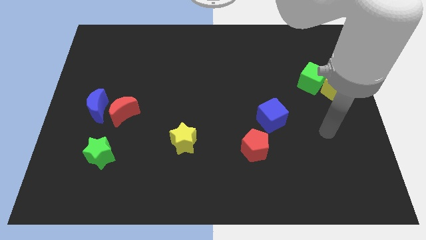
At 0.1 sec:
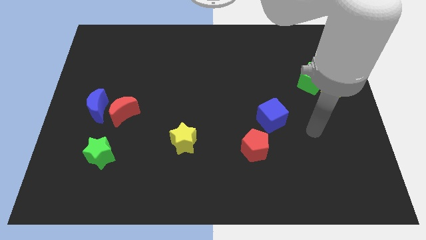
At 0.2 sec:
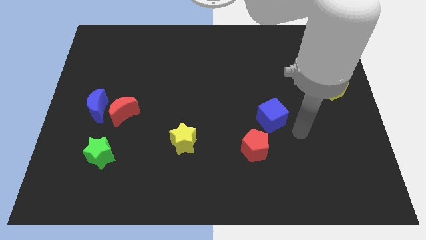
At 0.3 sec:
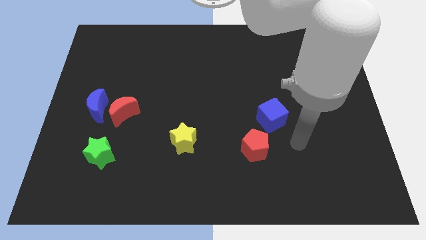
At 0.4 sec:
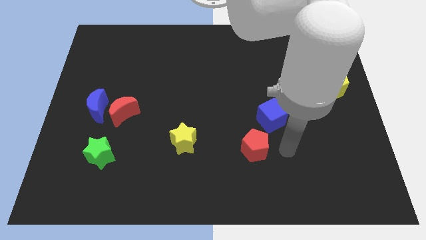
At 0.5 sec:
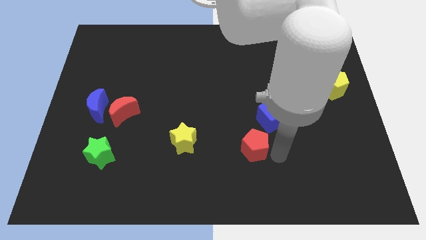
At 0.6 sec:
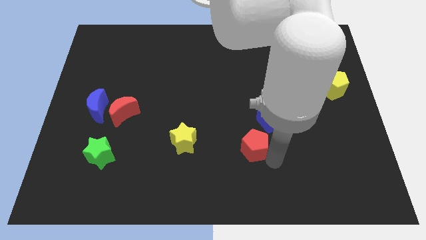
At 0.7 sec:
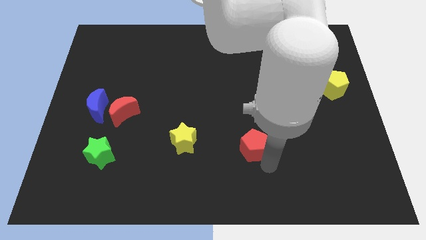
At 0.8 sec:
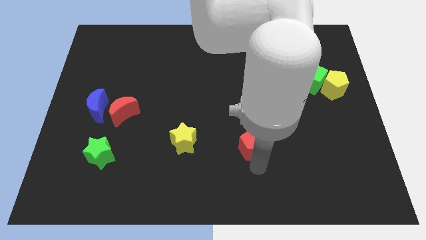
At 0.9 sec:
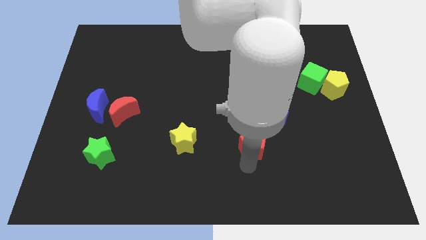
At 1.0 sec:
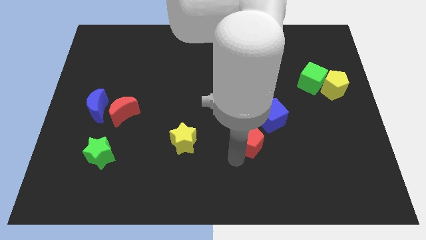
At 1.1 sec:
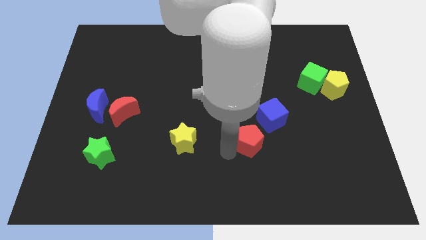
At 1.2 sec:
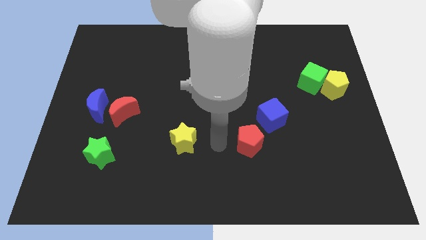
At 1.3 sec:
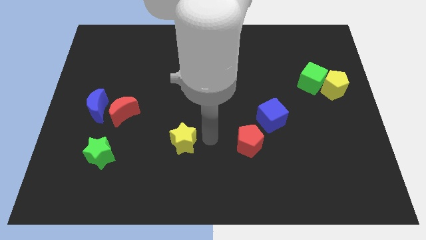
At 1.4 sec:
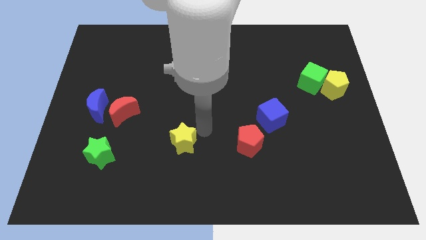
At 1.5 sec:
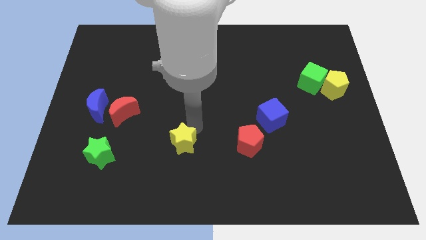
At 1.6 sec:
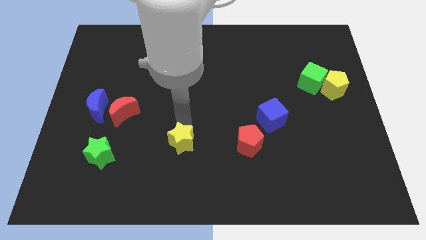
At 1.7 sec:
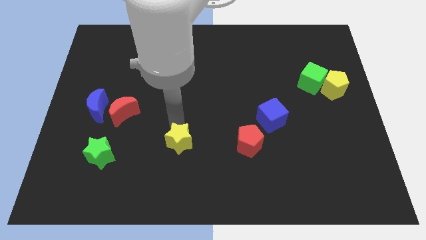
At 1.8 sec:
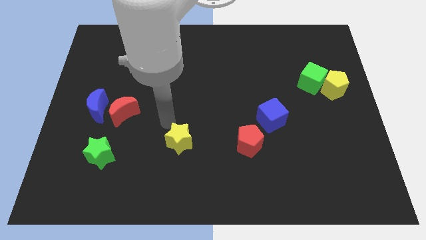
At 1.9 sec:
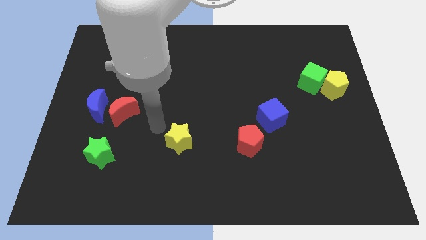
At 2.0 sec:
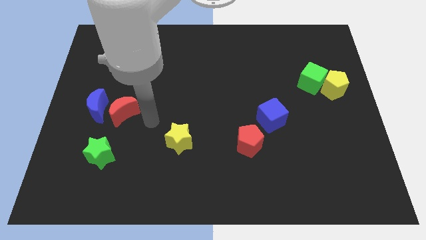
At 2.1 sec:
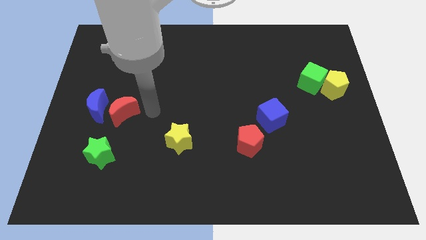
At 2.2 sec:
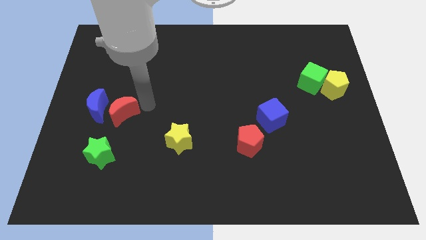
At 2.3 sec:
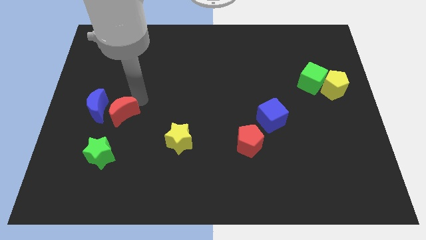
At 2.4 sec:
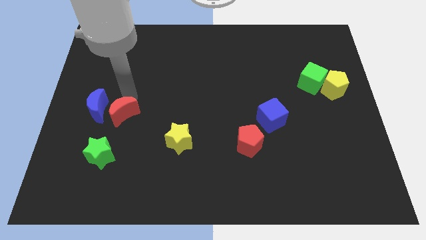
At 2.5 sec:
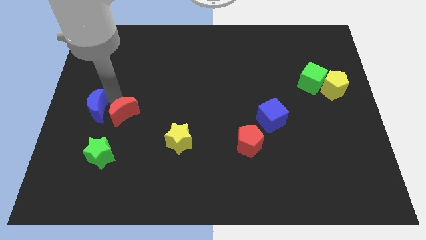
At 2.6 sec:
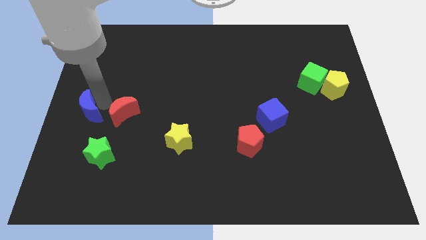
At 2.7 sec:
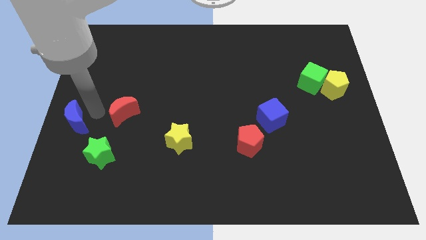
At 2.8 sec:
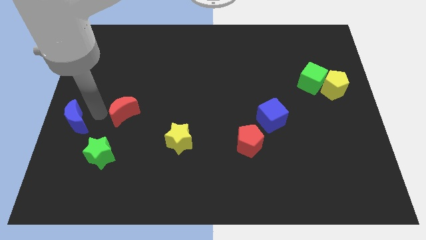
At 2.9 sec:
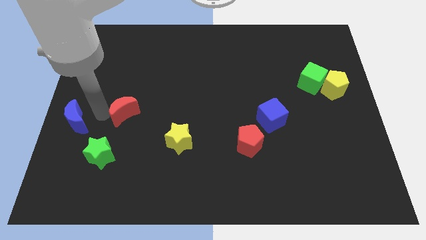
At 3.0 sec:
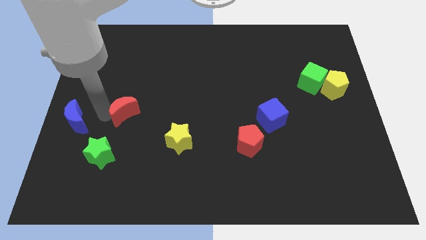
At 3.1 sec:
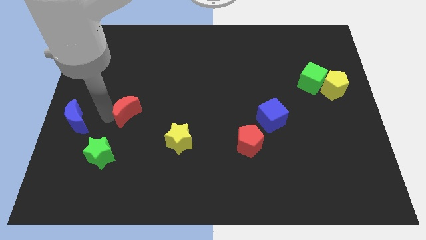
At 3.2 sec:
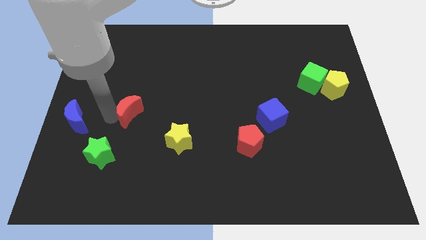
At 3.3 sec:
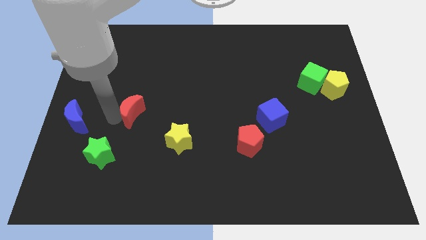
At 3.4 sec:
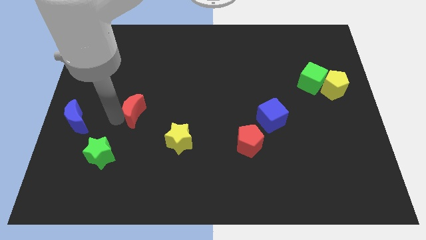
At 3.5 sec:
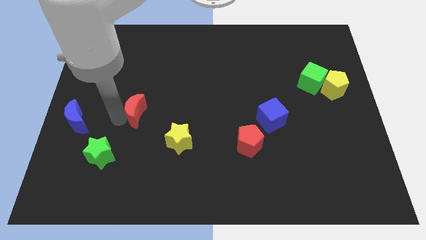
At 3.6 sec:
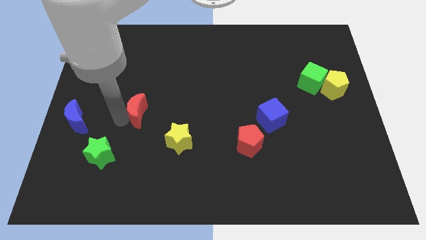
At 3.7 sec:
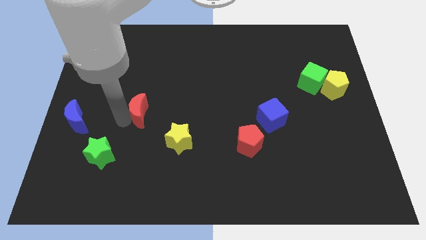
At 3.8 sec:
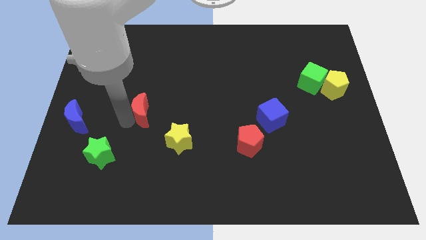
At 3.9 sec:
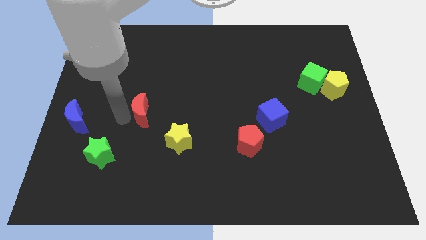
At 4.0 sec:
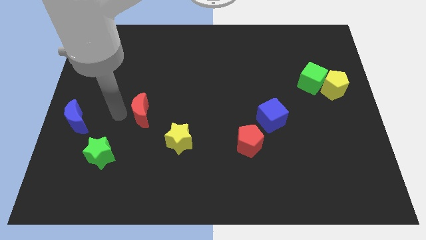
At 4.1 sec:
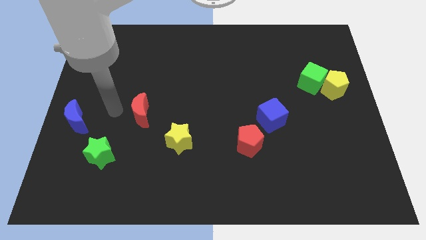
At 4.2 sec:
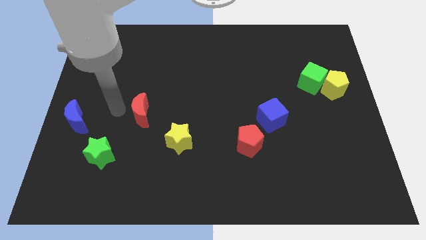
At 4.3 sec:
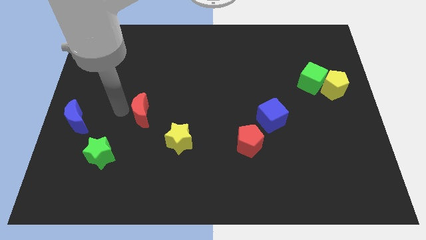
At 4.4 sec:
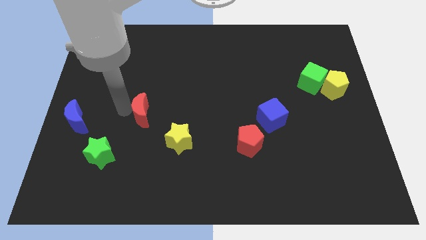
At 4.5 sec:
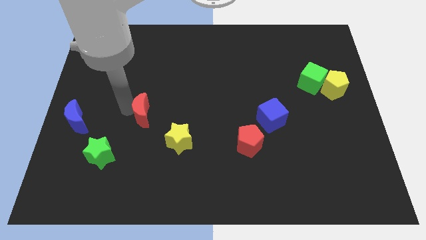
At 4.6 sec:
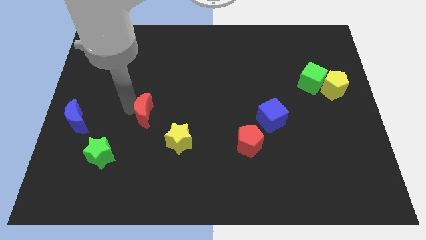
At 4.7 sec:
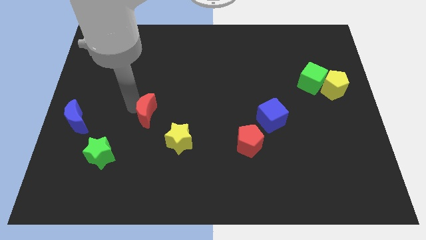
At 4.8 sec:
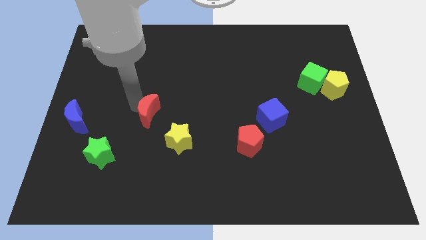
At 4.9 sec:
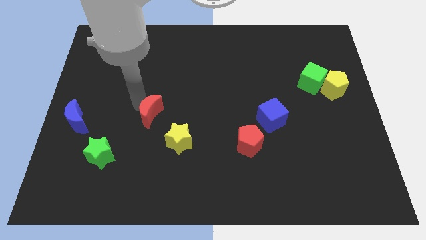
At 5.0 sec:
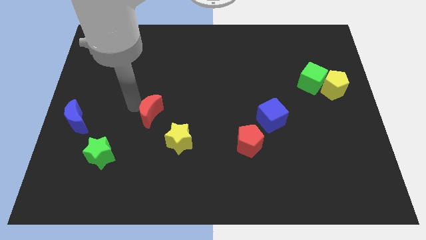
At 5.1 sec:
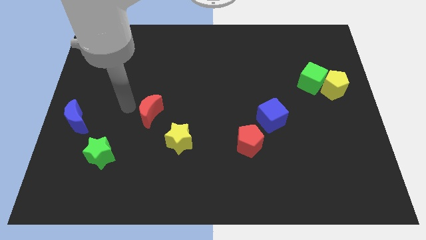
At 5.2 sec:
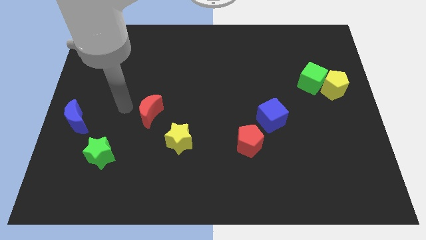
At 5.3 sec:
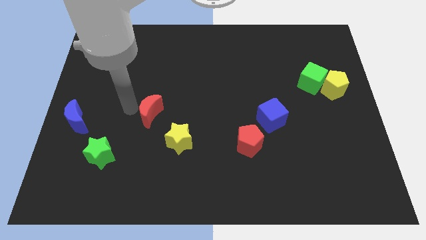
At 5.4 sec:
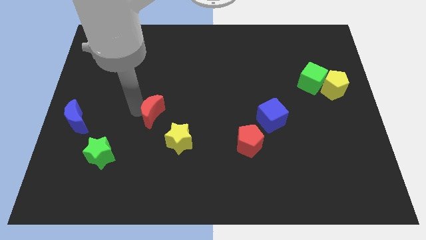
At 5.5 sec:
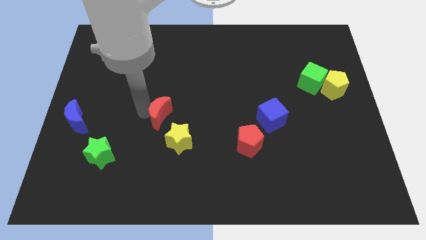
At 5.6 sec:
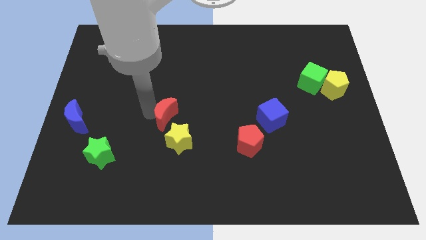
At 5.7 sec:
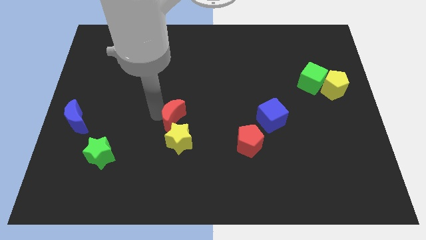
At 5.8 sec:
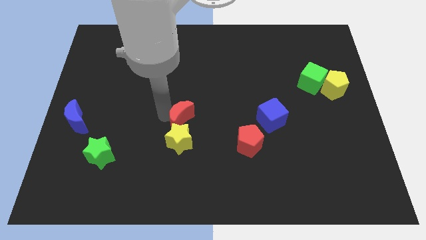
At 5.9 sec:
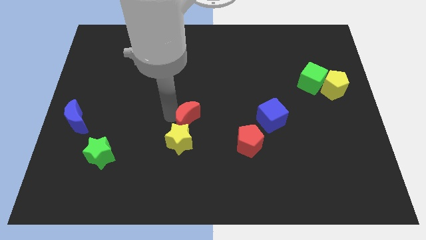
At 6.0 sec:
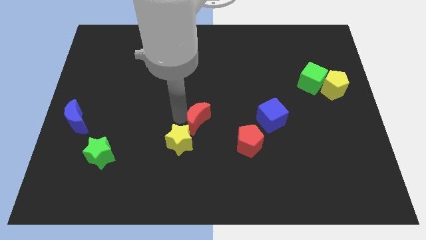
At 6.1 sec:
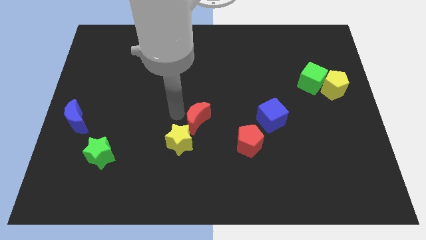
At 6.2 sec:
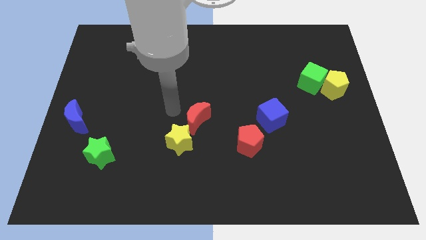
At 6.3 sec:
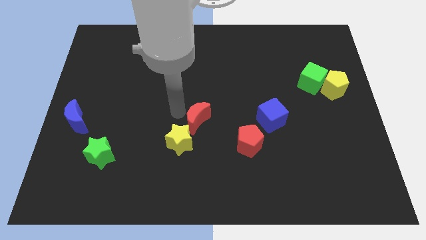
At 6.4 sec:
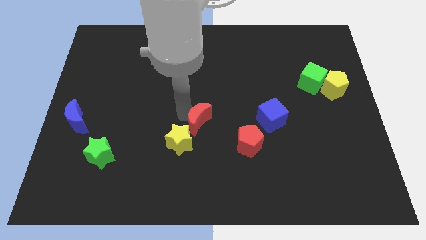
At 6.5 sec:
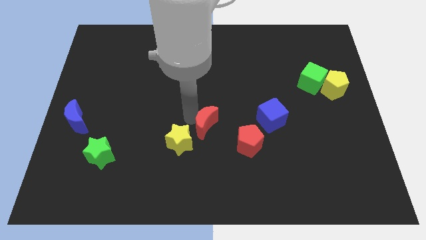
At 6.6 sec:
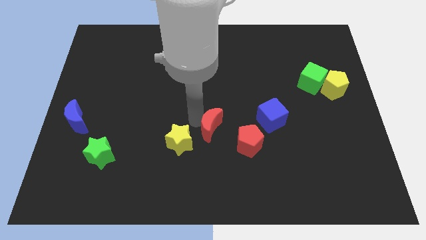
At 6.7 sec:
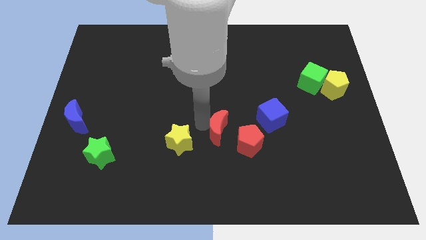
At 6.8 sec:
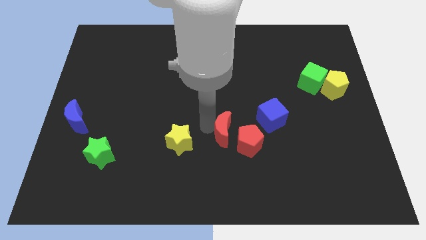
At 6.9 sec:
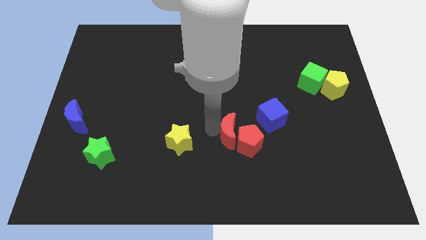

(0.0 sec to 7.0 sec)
slide the red moon next to the red pentagon
